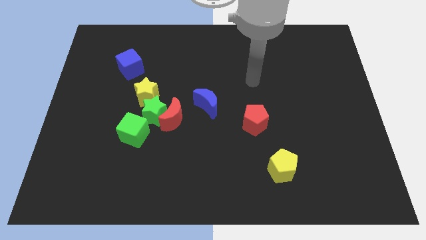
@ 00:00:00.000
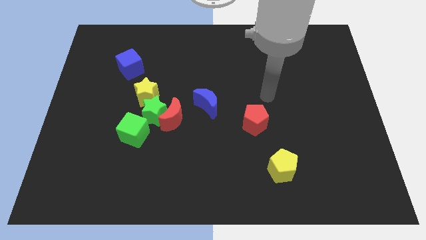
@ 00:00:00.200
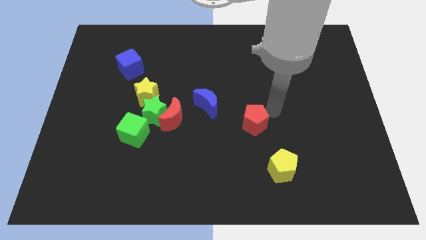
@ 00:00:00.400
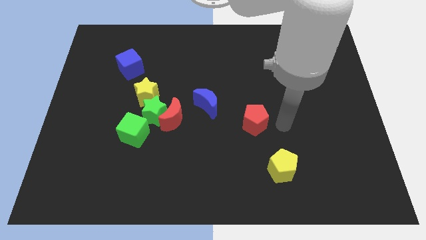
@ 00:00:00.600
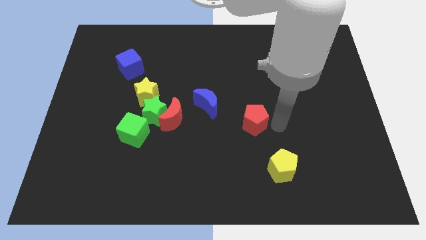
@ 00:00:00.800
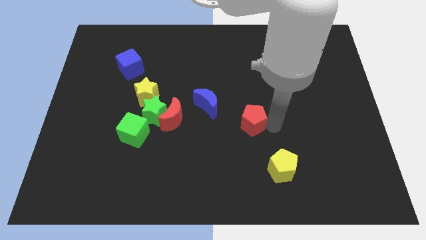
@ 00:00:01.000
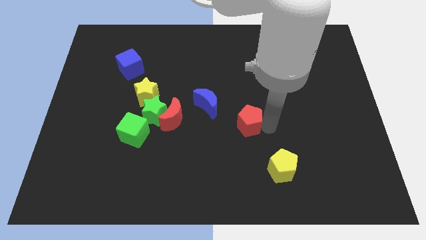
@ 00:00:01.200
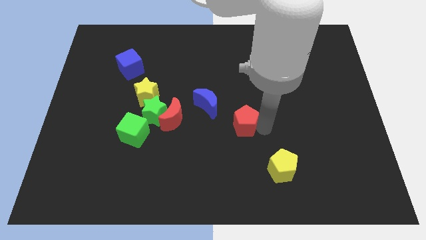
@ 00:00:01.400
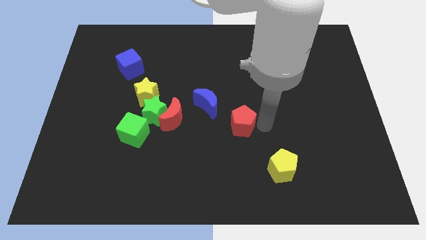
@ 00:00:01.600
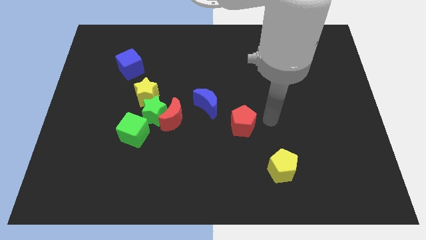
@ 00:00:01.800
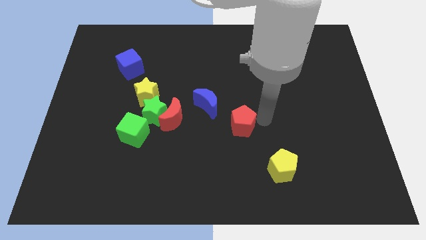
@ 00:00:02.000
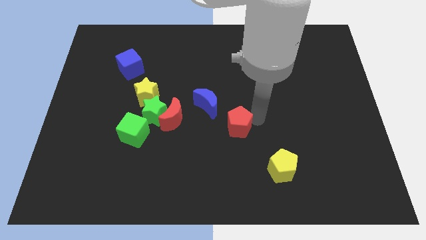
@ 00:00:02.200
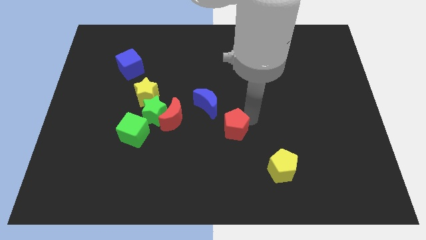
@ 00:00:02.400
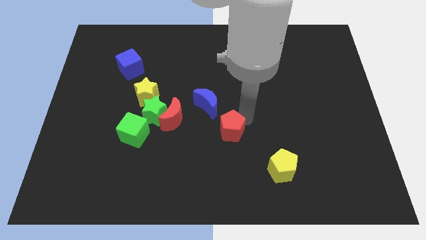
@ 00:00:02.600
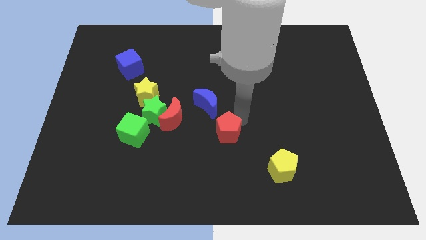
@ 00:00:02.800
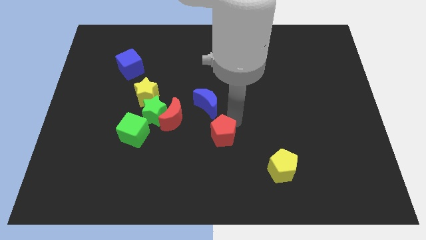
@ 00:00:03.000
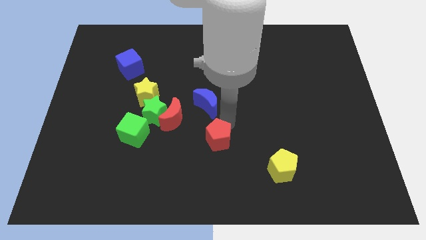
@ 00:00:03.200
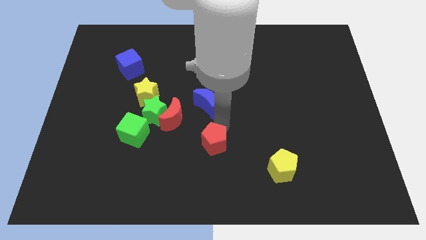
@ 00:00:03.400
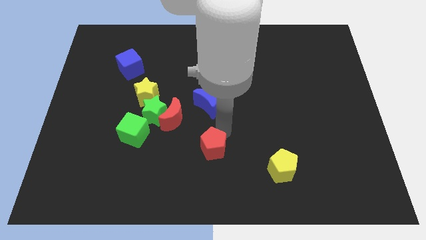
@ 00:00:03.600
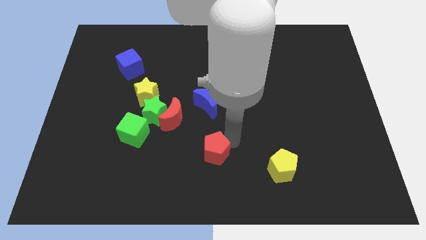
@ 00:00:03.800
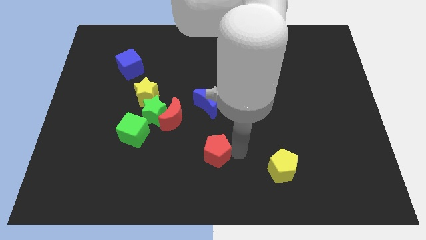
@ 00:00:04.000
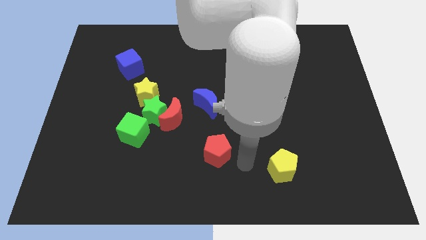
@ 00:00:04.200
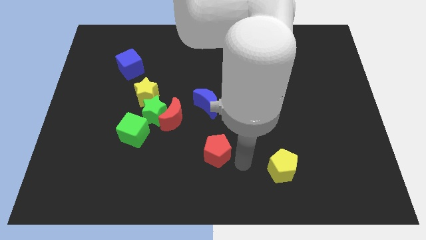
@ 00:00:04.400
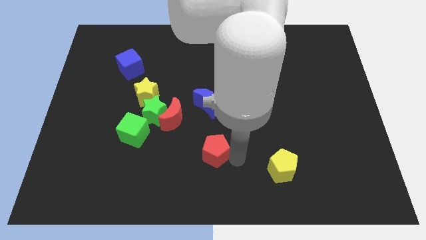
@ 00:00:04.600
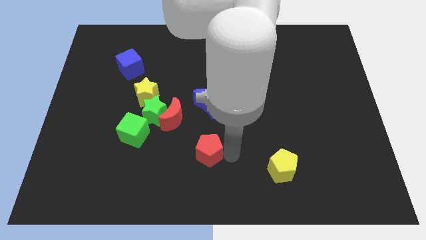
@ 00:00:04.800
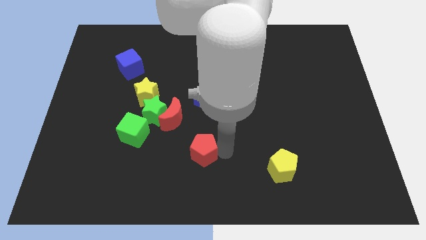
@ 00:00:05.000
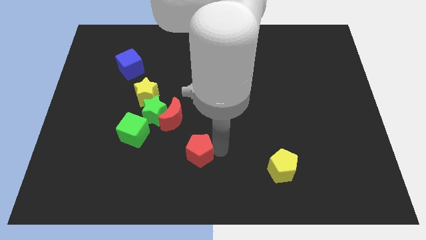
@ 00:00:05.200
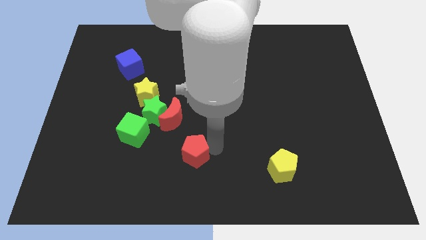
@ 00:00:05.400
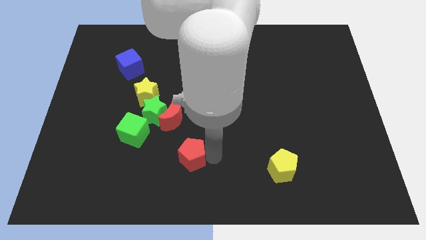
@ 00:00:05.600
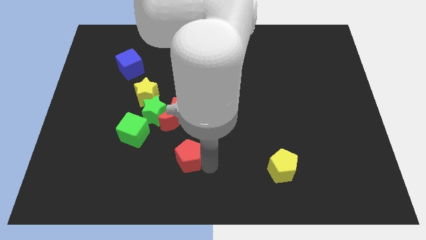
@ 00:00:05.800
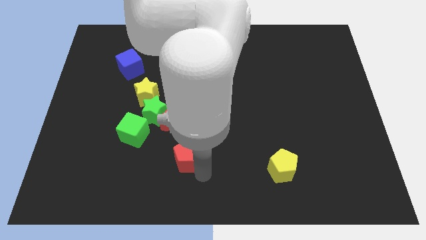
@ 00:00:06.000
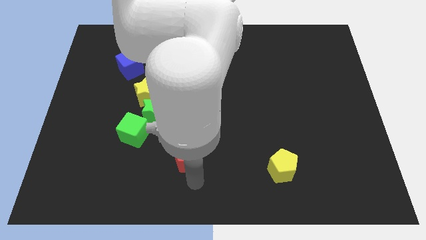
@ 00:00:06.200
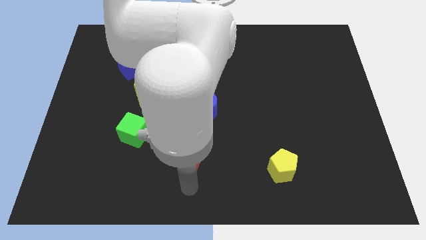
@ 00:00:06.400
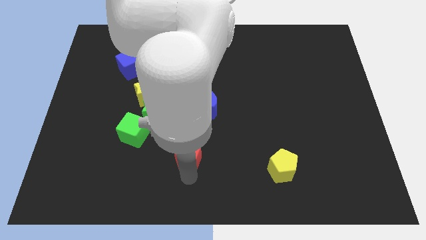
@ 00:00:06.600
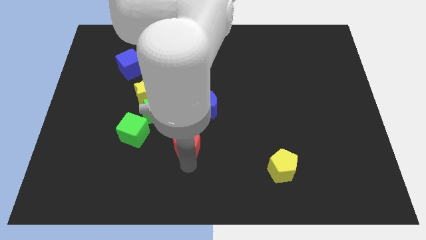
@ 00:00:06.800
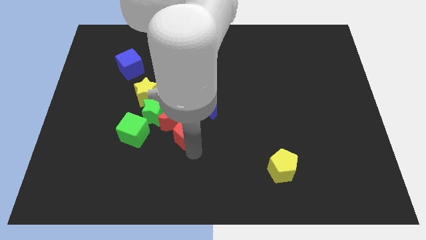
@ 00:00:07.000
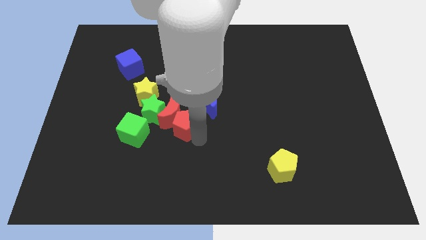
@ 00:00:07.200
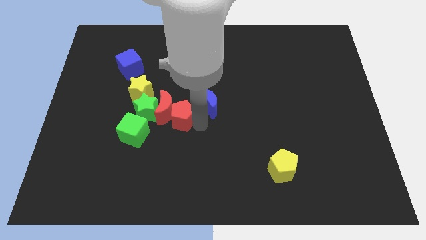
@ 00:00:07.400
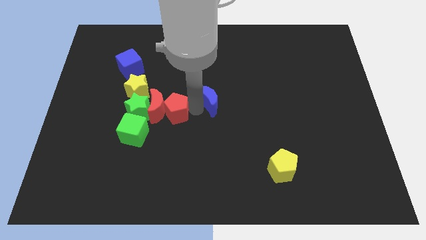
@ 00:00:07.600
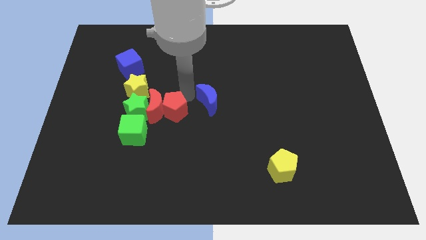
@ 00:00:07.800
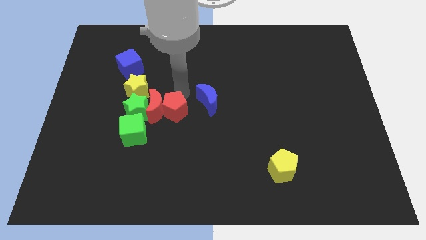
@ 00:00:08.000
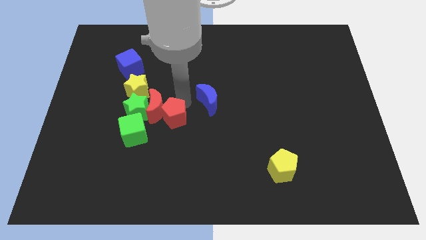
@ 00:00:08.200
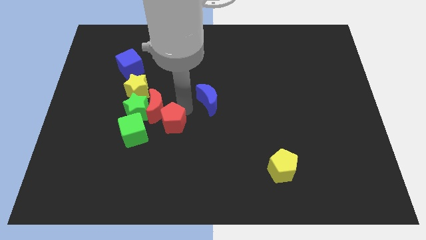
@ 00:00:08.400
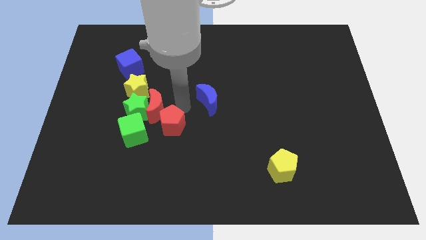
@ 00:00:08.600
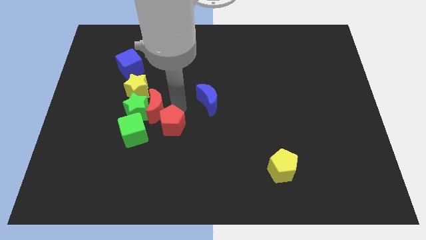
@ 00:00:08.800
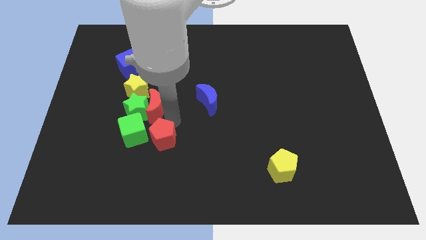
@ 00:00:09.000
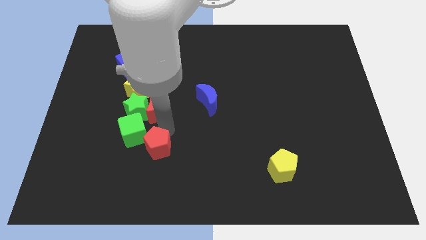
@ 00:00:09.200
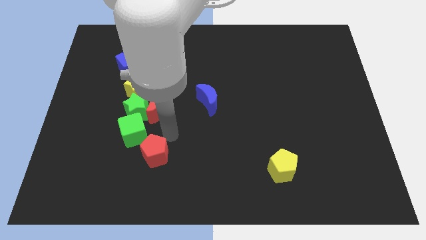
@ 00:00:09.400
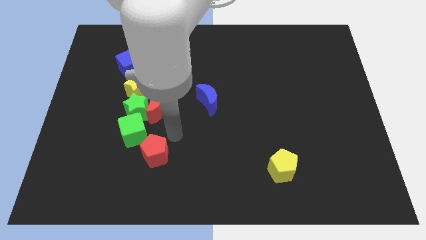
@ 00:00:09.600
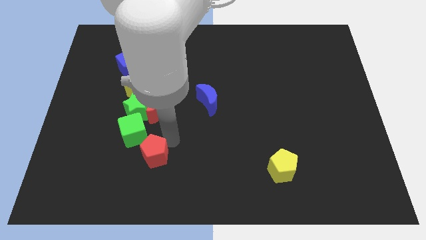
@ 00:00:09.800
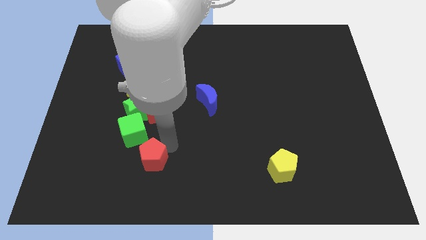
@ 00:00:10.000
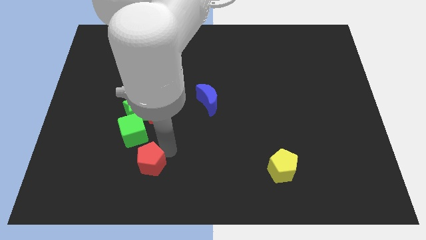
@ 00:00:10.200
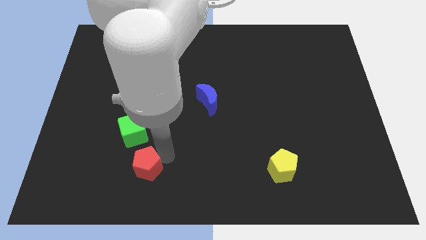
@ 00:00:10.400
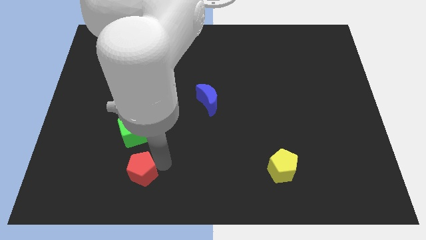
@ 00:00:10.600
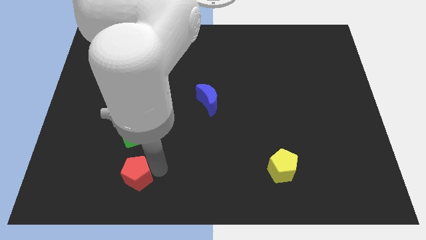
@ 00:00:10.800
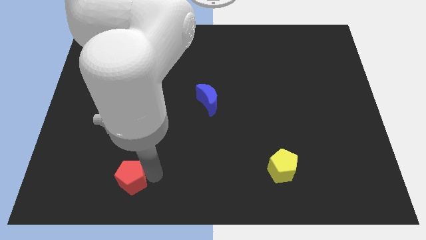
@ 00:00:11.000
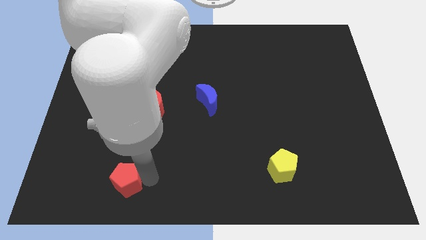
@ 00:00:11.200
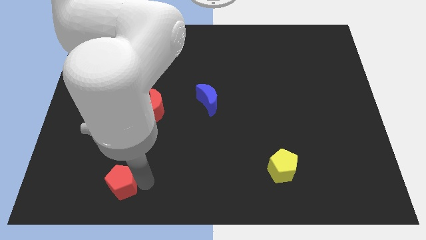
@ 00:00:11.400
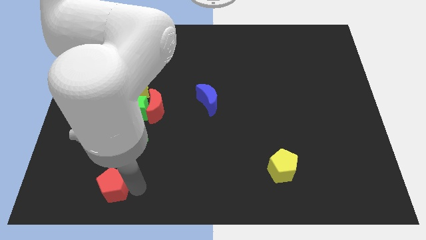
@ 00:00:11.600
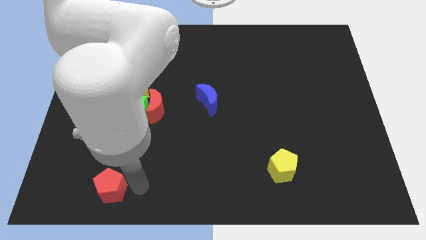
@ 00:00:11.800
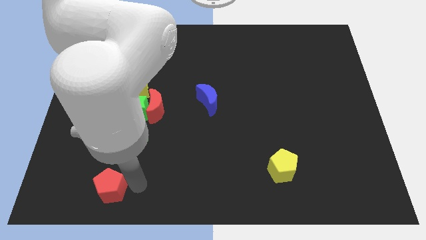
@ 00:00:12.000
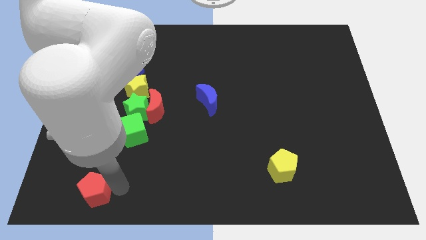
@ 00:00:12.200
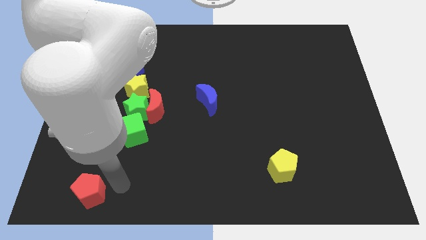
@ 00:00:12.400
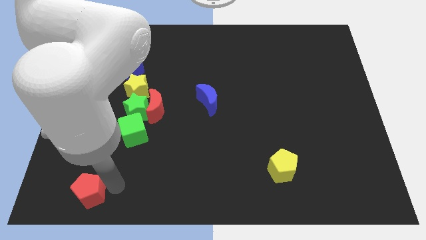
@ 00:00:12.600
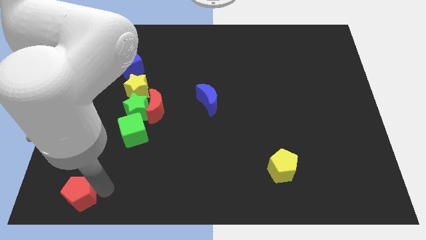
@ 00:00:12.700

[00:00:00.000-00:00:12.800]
push the red pentagon to the bottom left

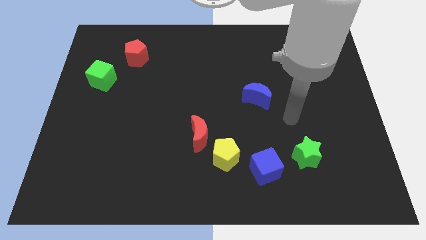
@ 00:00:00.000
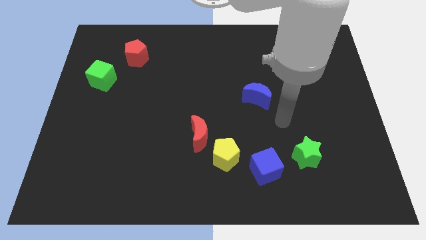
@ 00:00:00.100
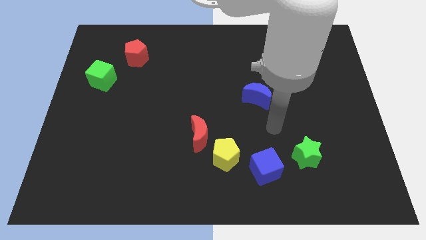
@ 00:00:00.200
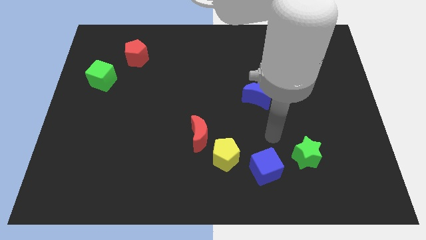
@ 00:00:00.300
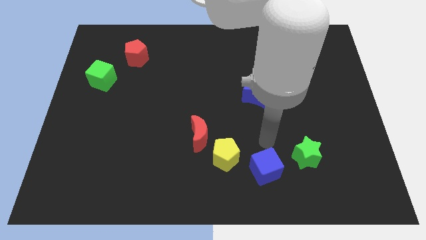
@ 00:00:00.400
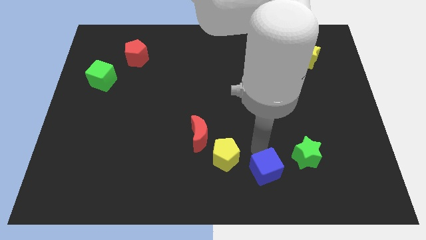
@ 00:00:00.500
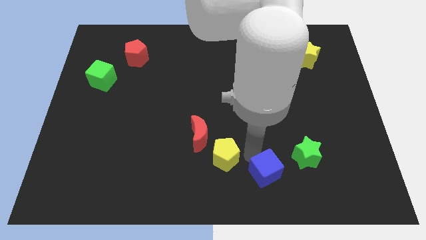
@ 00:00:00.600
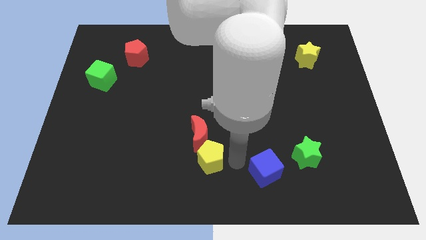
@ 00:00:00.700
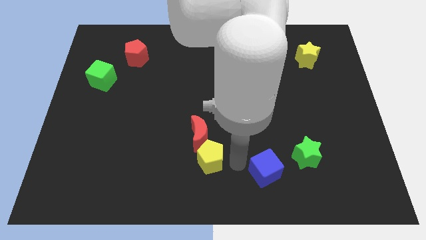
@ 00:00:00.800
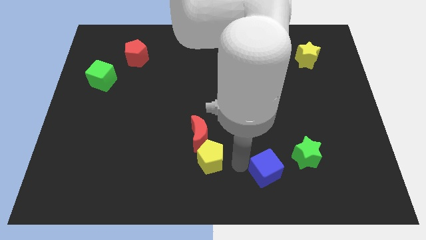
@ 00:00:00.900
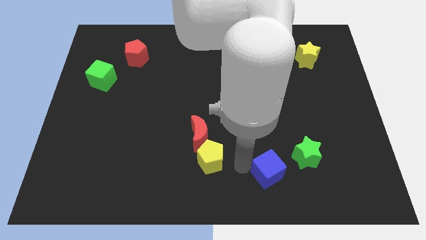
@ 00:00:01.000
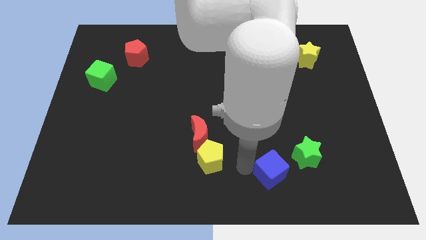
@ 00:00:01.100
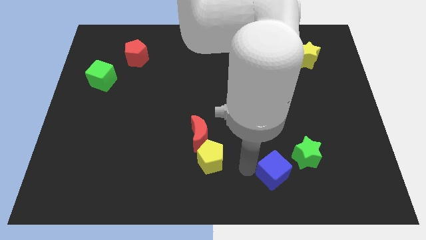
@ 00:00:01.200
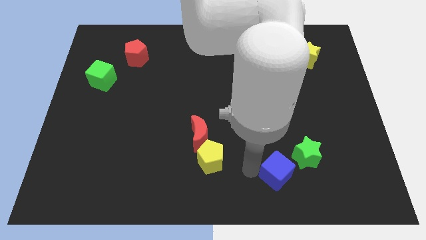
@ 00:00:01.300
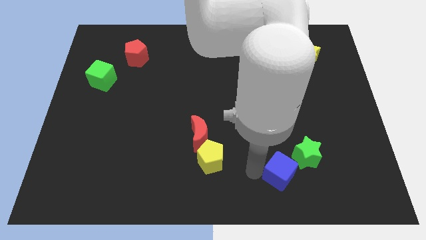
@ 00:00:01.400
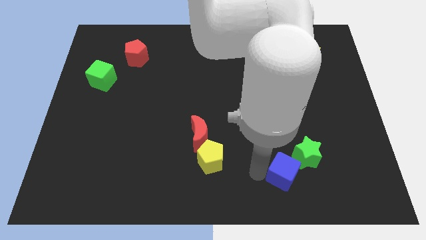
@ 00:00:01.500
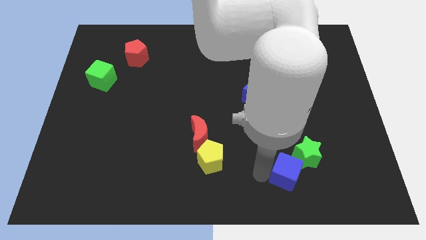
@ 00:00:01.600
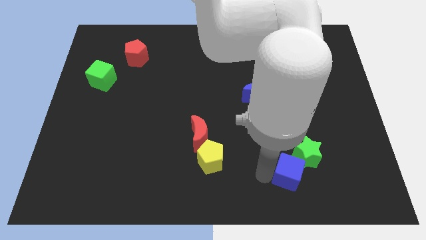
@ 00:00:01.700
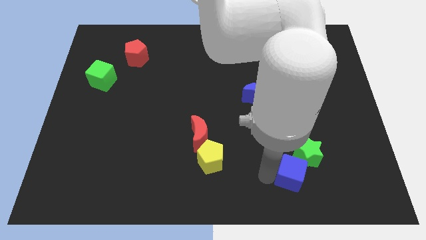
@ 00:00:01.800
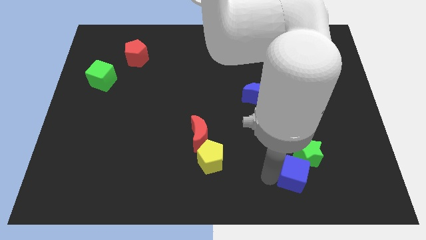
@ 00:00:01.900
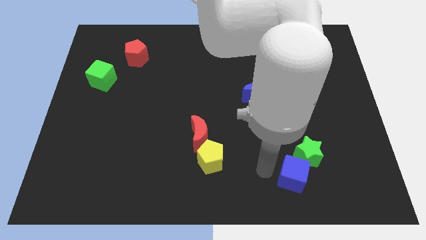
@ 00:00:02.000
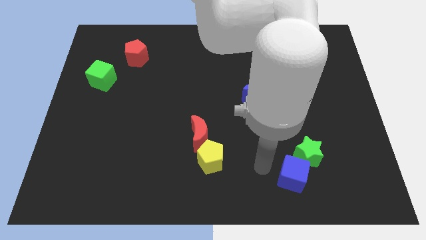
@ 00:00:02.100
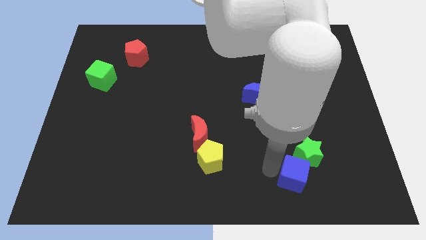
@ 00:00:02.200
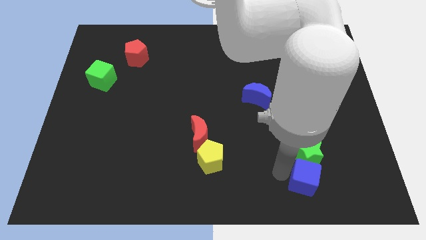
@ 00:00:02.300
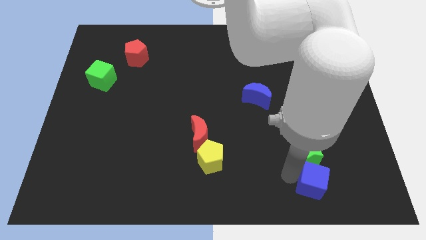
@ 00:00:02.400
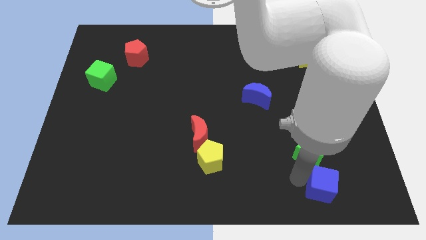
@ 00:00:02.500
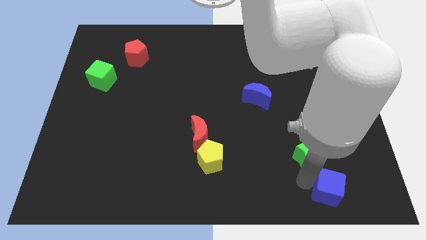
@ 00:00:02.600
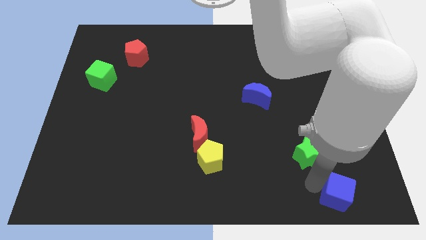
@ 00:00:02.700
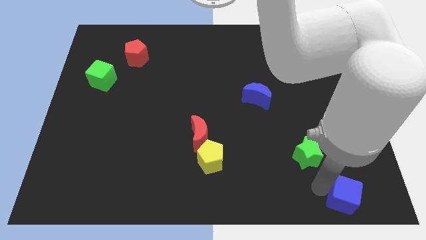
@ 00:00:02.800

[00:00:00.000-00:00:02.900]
put the blue cube to the bottom right
